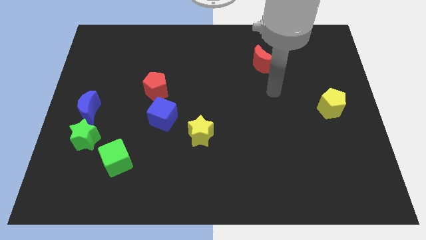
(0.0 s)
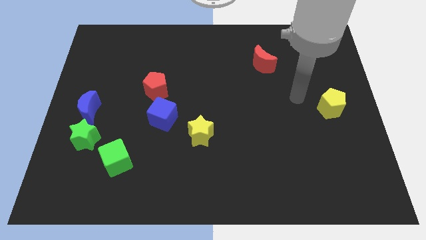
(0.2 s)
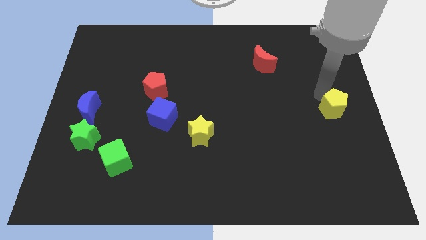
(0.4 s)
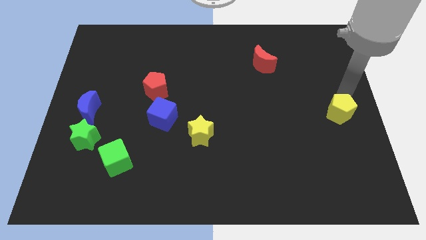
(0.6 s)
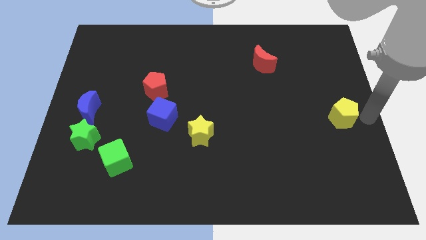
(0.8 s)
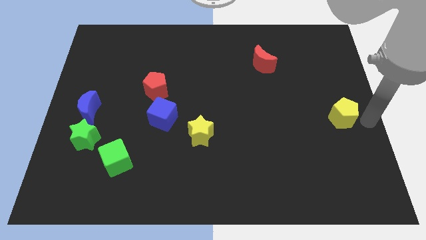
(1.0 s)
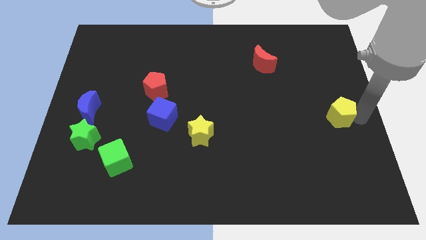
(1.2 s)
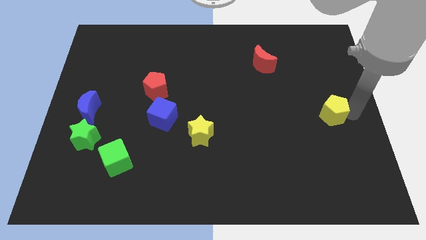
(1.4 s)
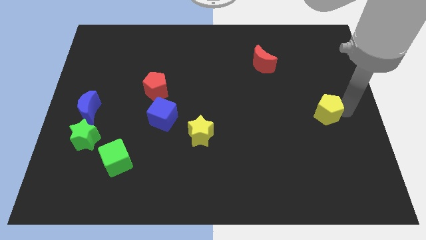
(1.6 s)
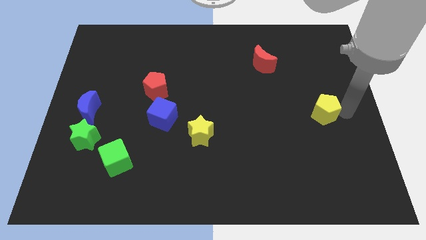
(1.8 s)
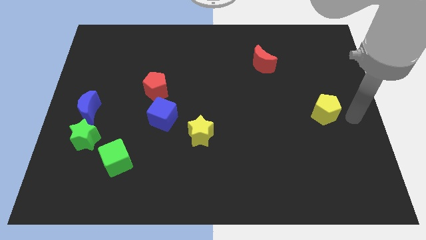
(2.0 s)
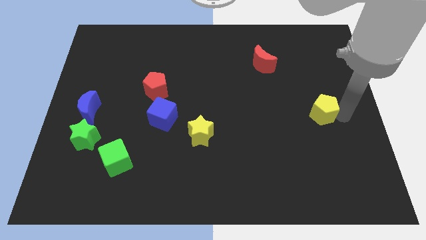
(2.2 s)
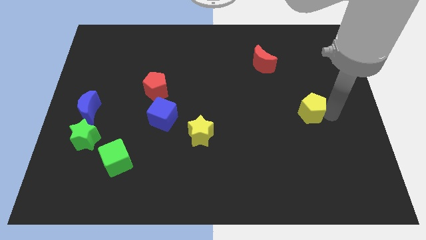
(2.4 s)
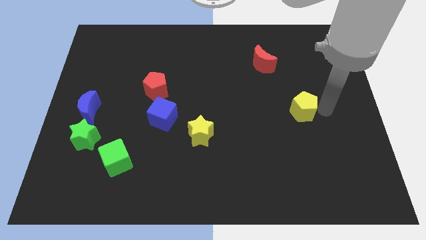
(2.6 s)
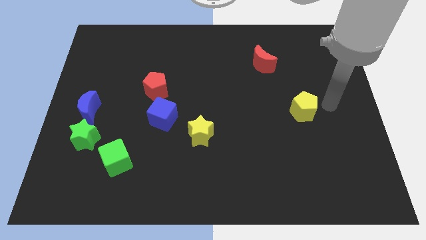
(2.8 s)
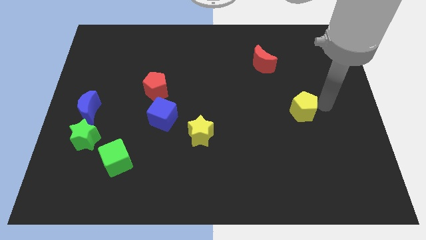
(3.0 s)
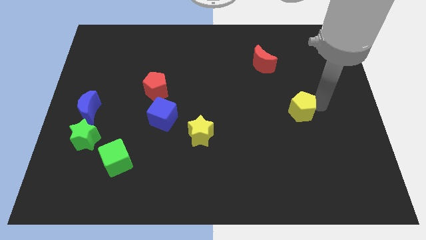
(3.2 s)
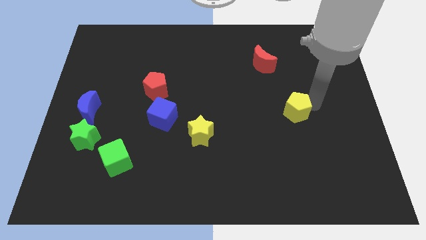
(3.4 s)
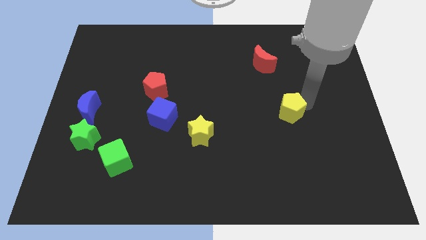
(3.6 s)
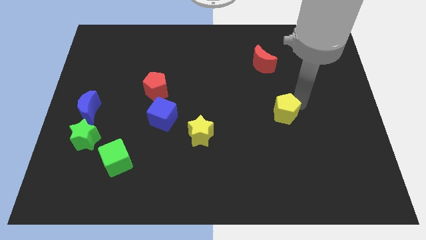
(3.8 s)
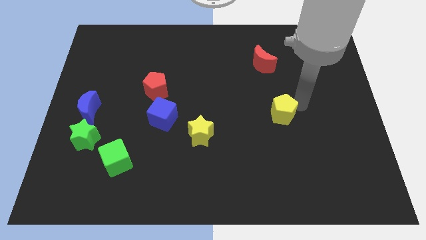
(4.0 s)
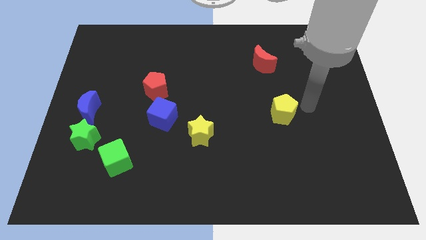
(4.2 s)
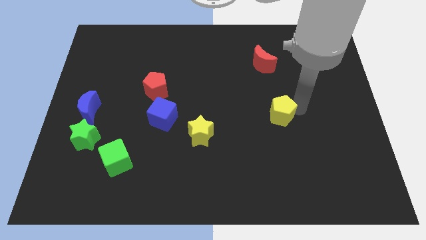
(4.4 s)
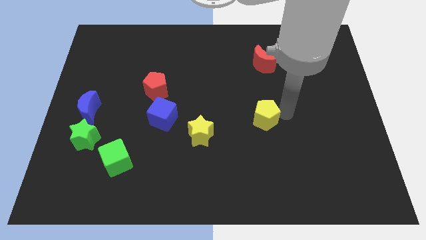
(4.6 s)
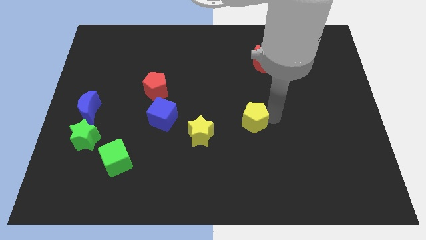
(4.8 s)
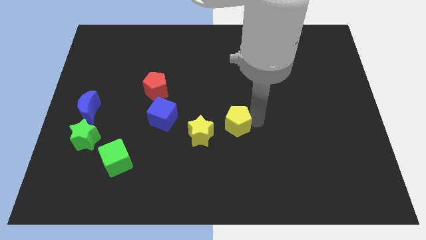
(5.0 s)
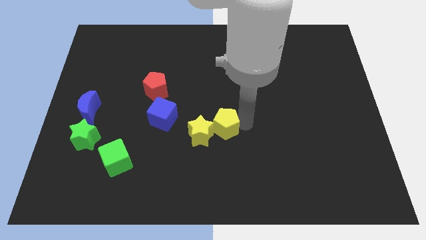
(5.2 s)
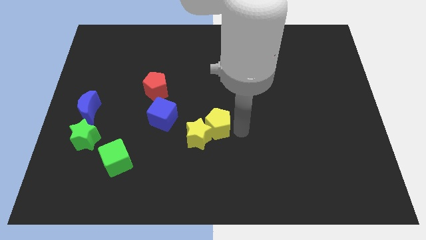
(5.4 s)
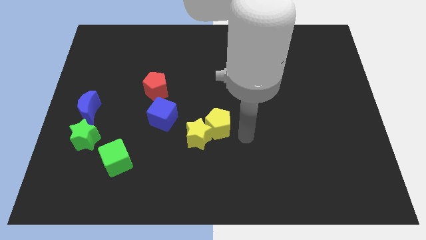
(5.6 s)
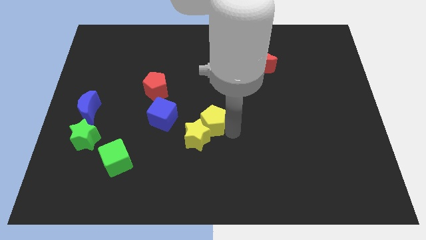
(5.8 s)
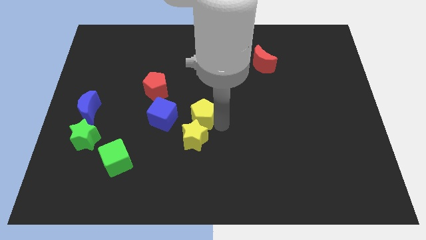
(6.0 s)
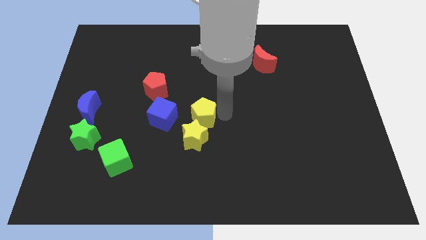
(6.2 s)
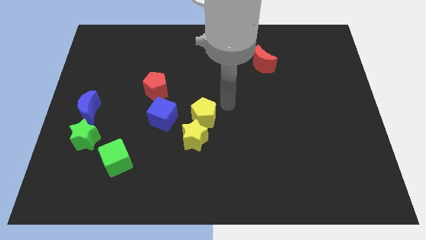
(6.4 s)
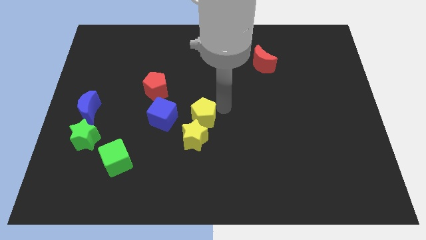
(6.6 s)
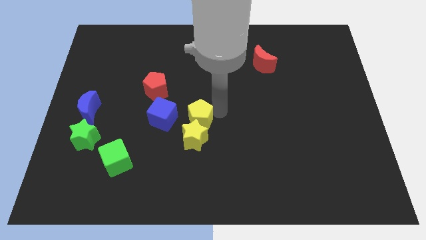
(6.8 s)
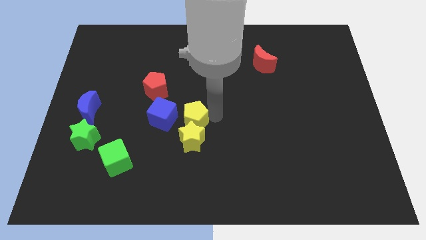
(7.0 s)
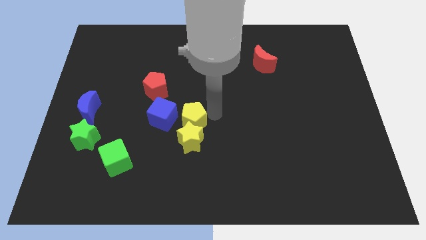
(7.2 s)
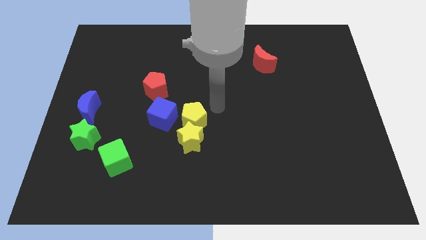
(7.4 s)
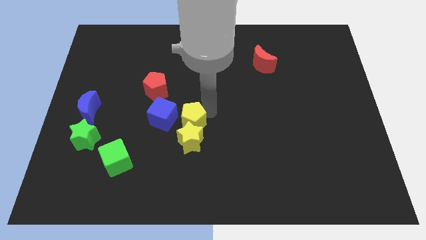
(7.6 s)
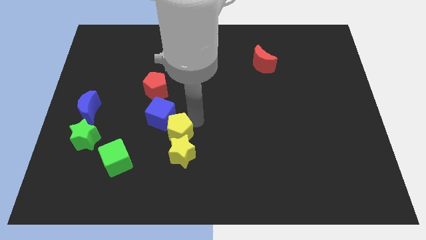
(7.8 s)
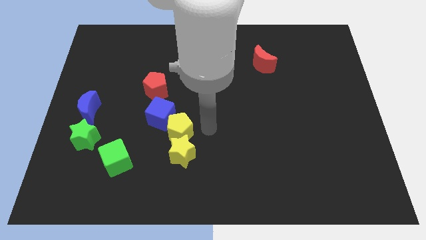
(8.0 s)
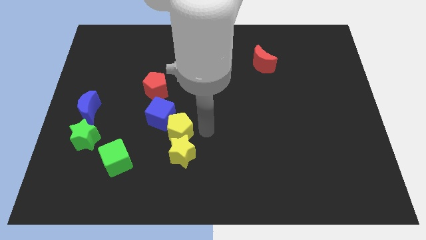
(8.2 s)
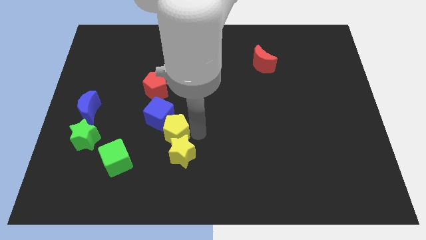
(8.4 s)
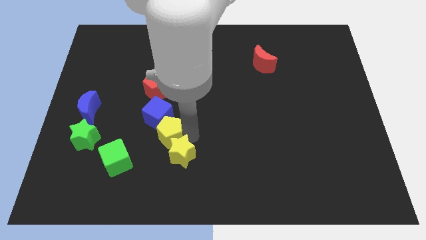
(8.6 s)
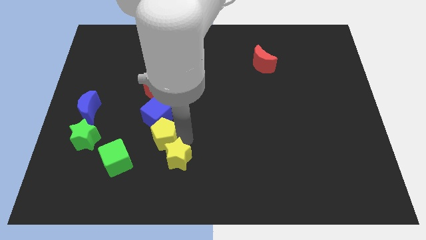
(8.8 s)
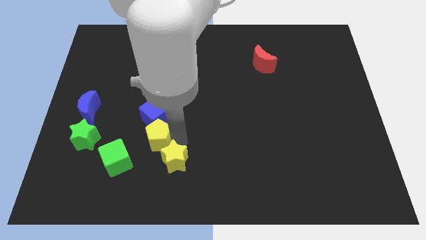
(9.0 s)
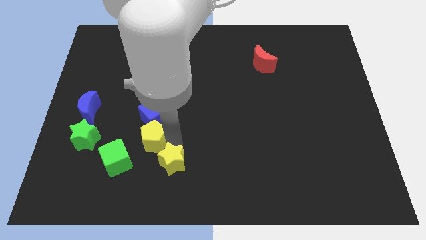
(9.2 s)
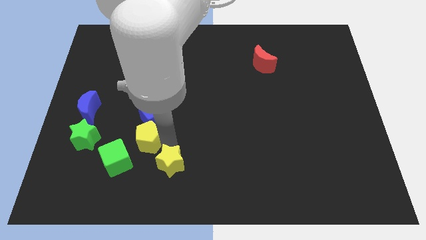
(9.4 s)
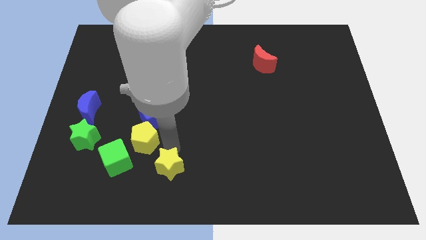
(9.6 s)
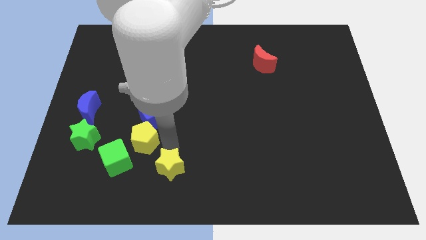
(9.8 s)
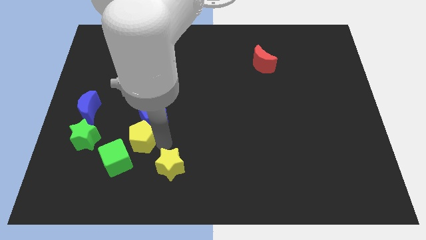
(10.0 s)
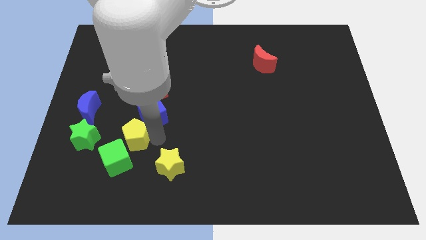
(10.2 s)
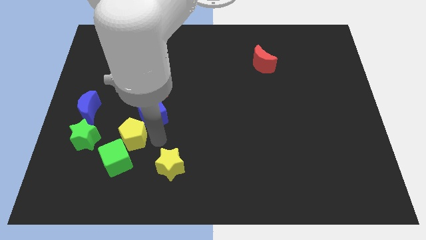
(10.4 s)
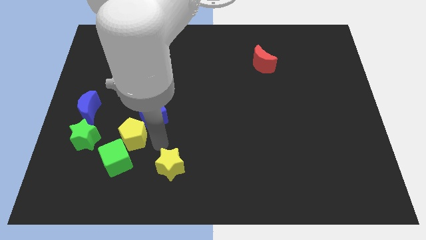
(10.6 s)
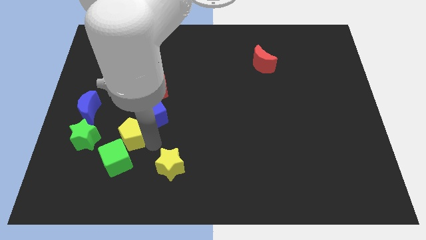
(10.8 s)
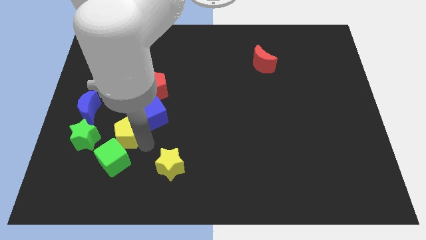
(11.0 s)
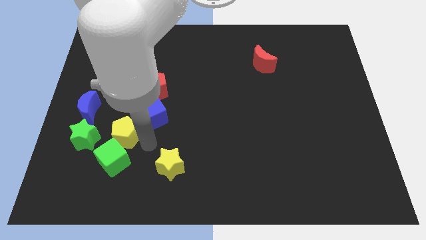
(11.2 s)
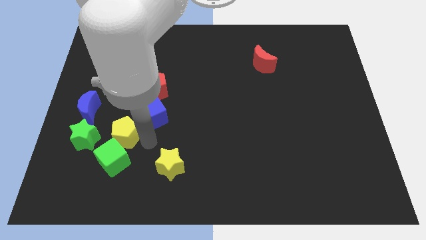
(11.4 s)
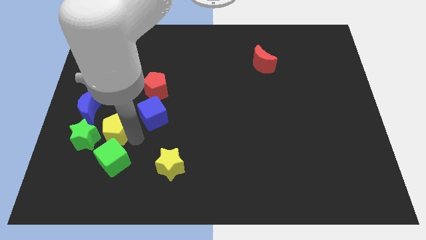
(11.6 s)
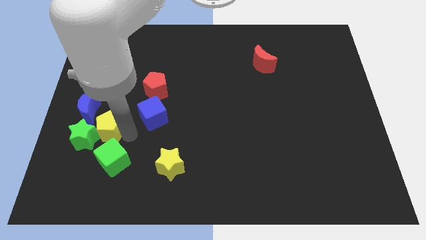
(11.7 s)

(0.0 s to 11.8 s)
move the yellow pentagon to the green star
